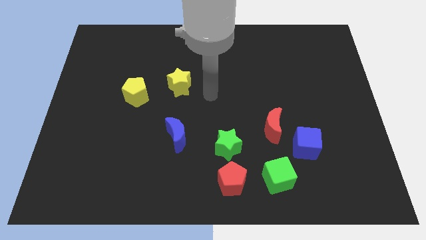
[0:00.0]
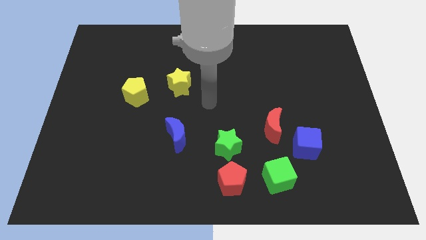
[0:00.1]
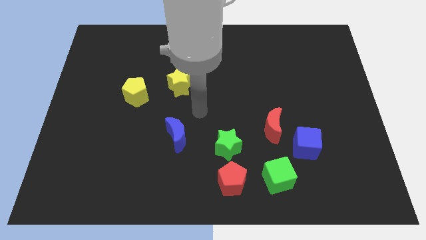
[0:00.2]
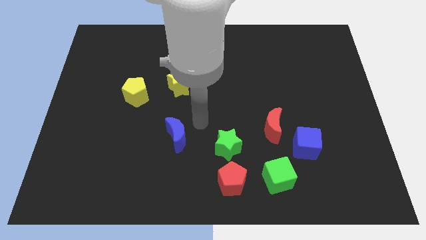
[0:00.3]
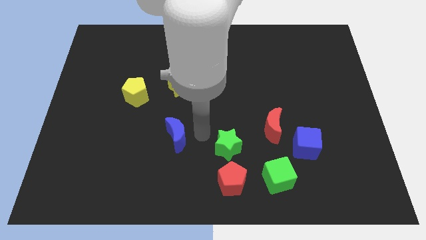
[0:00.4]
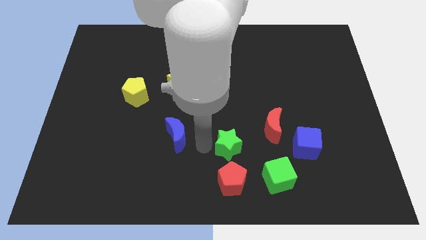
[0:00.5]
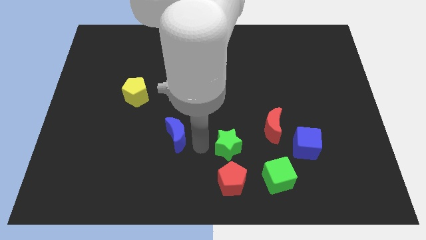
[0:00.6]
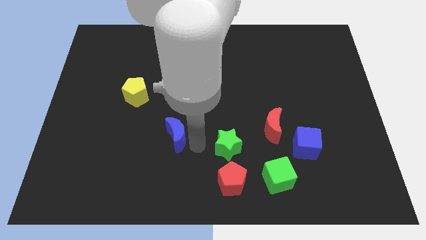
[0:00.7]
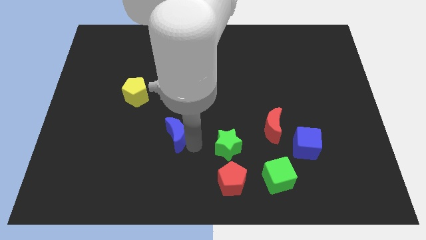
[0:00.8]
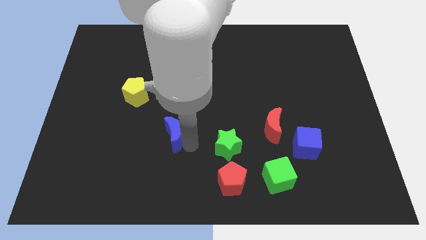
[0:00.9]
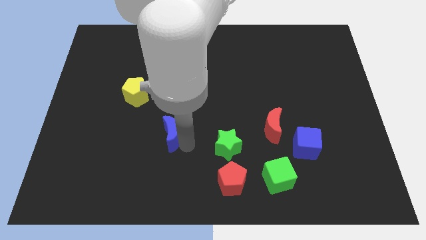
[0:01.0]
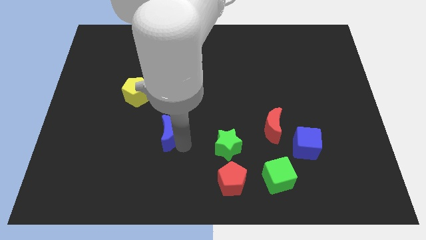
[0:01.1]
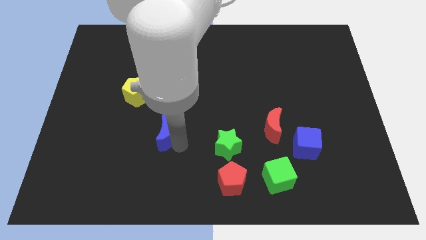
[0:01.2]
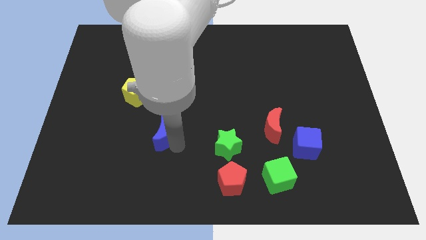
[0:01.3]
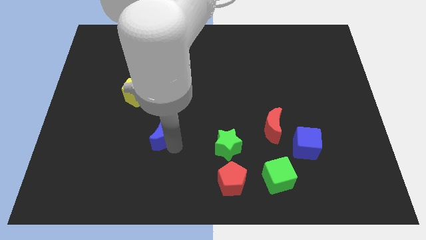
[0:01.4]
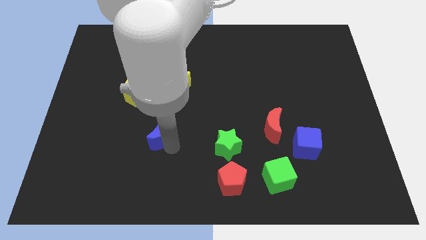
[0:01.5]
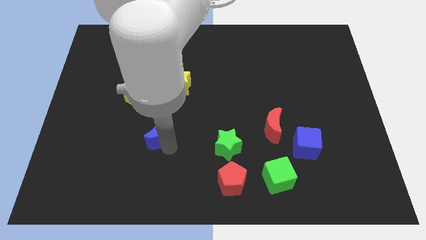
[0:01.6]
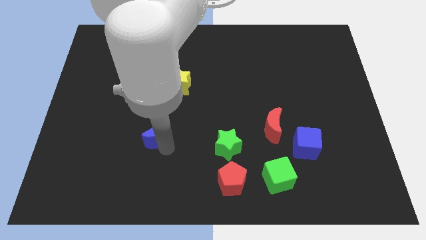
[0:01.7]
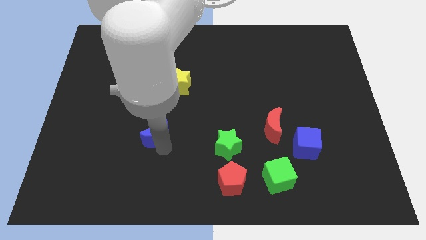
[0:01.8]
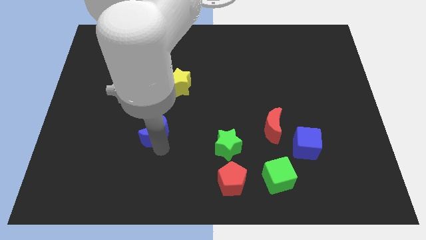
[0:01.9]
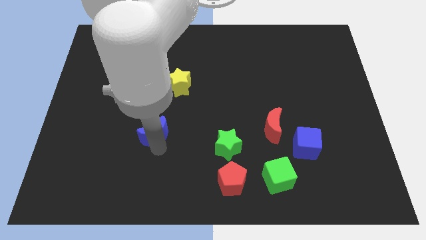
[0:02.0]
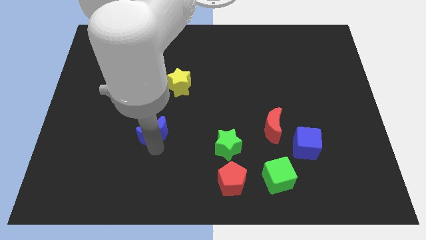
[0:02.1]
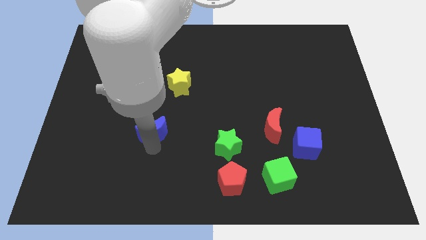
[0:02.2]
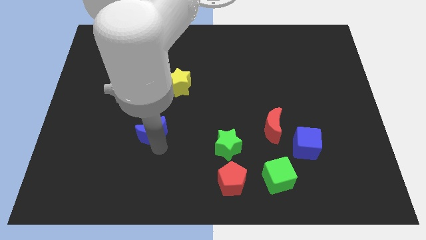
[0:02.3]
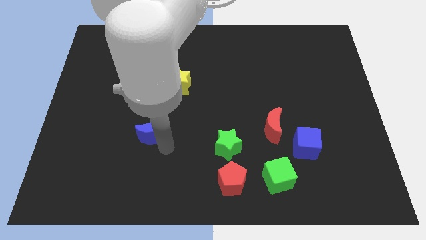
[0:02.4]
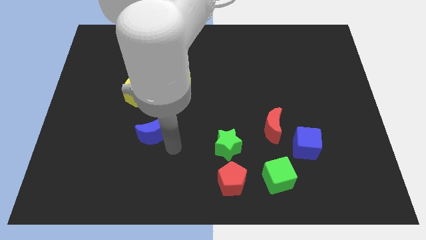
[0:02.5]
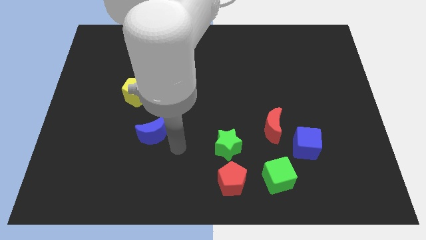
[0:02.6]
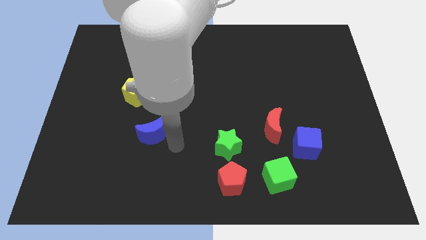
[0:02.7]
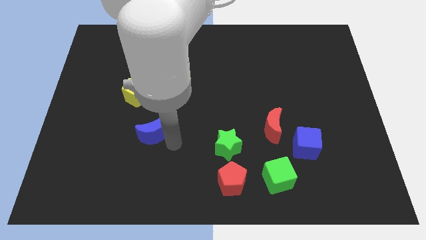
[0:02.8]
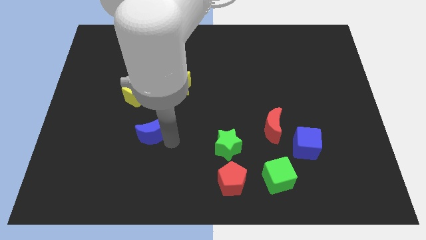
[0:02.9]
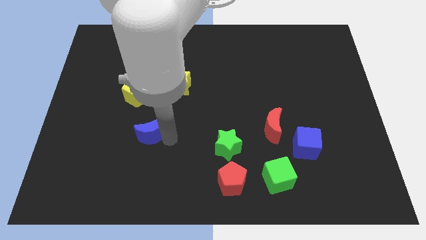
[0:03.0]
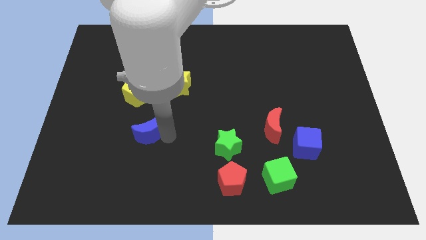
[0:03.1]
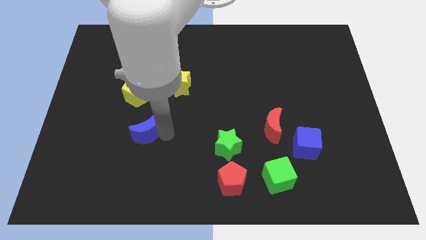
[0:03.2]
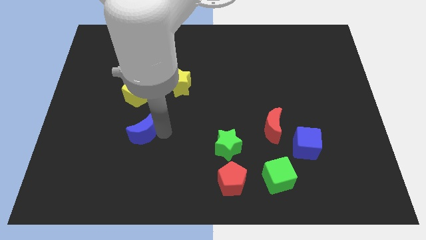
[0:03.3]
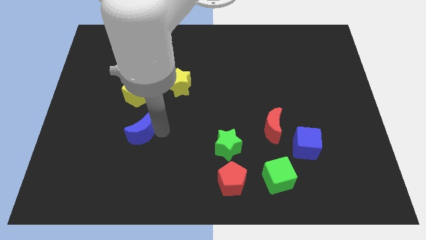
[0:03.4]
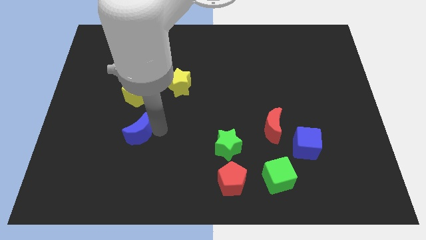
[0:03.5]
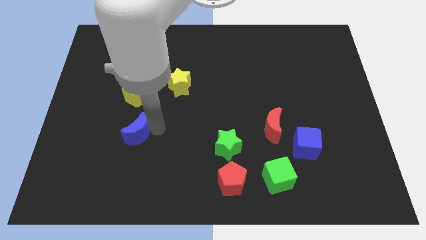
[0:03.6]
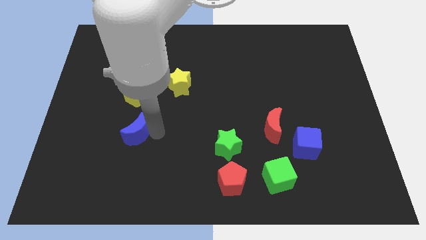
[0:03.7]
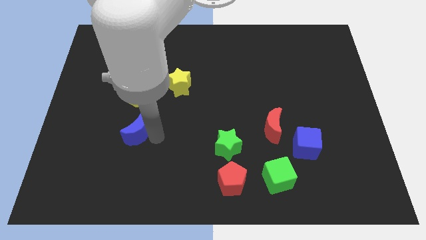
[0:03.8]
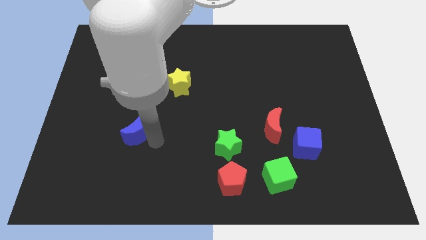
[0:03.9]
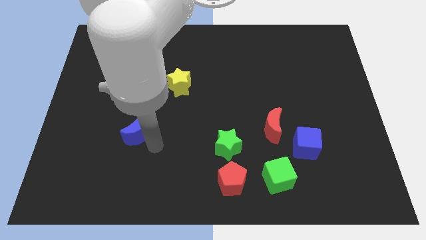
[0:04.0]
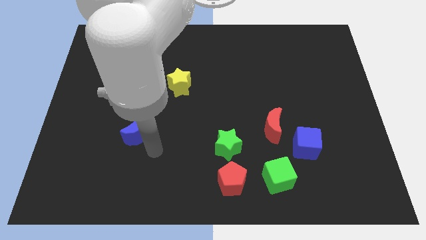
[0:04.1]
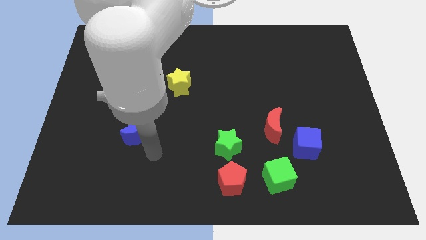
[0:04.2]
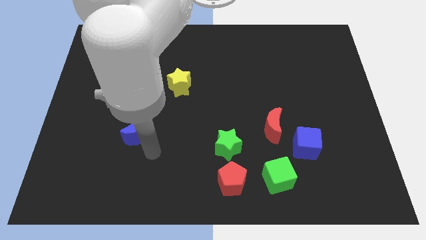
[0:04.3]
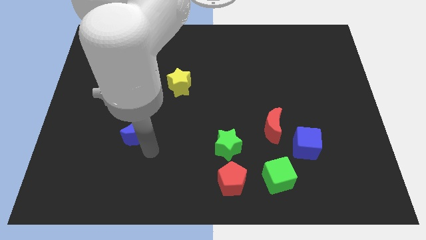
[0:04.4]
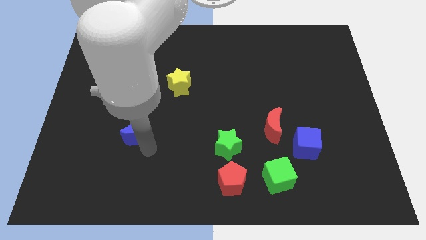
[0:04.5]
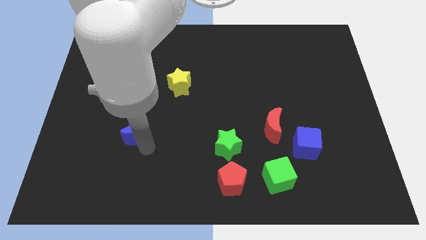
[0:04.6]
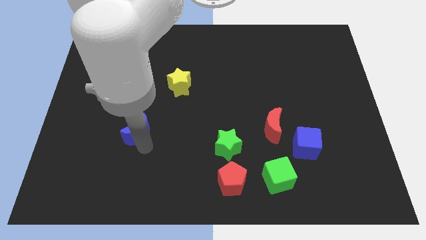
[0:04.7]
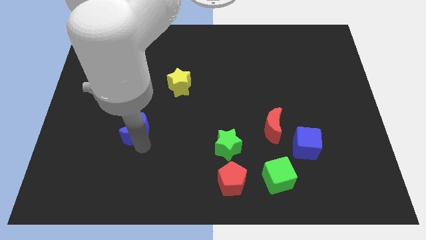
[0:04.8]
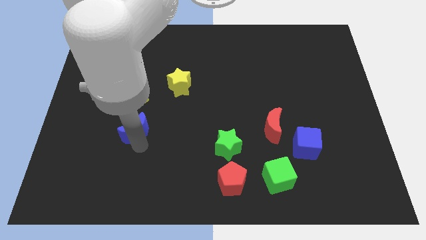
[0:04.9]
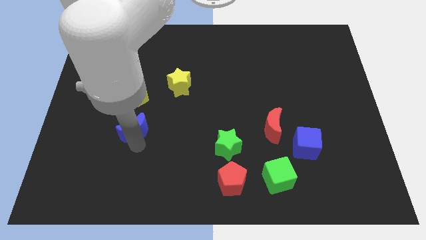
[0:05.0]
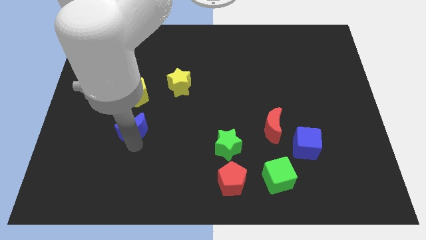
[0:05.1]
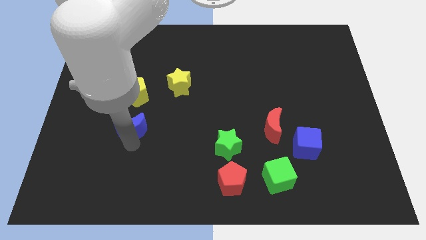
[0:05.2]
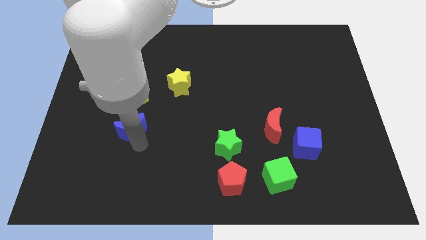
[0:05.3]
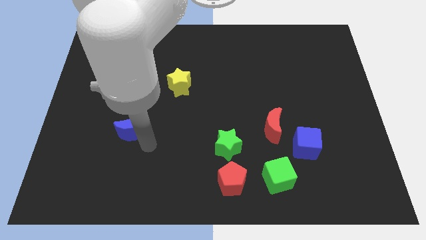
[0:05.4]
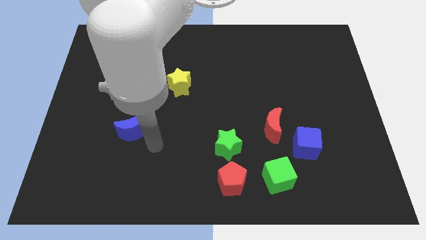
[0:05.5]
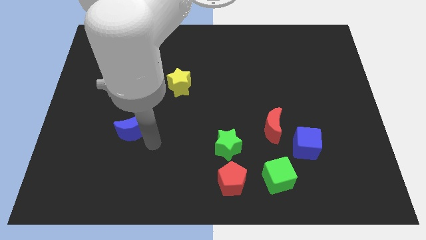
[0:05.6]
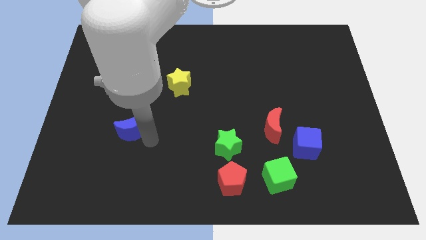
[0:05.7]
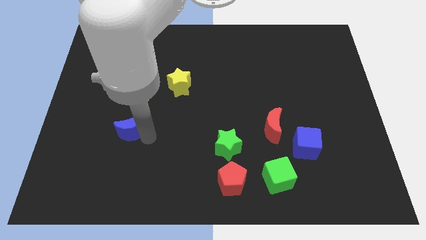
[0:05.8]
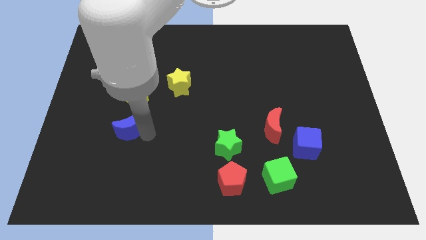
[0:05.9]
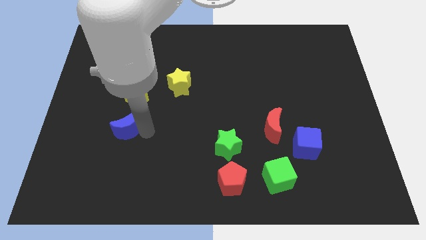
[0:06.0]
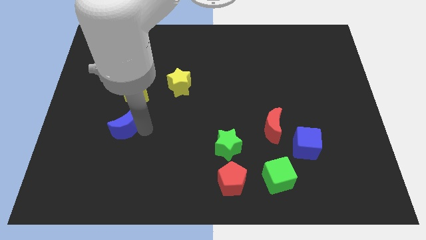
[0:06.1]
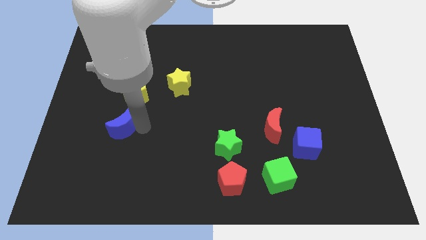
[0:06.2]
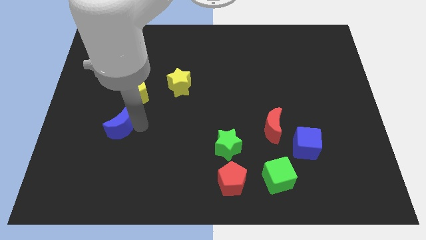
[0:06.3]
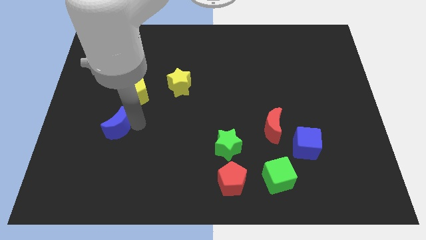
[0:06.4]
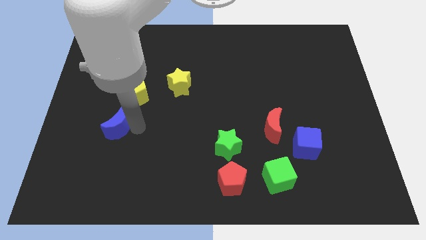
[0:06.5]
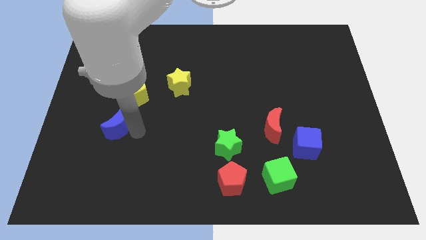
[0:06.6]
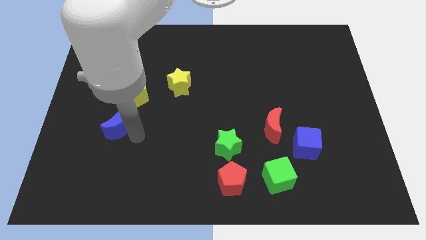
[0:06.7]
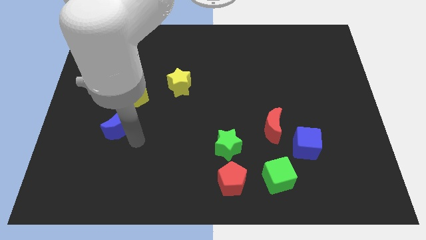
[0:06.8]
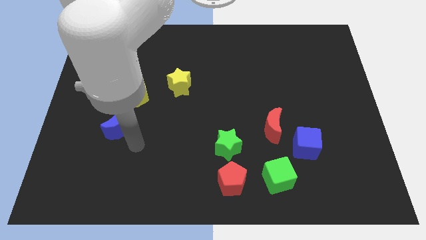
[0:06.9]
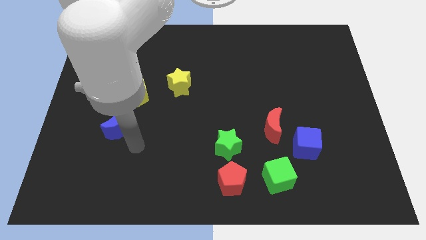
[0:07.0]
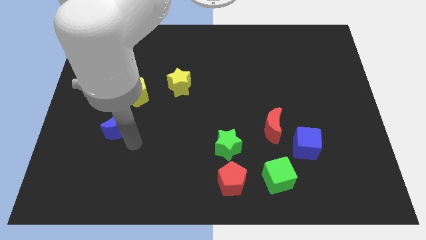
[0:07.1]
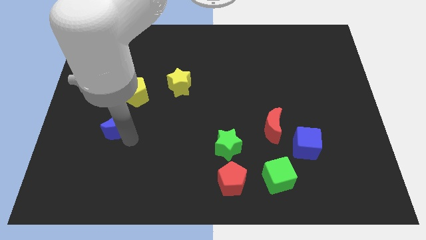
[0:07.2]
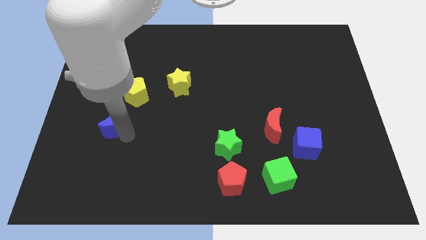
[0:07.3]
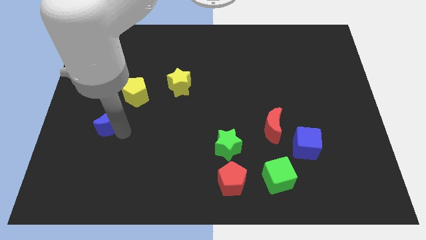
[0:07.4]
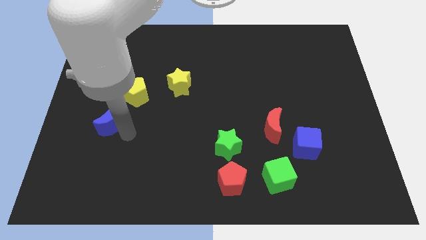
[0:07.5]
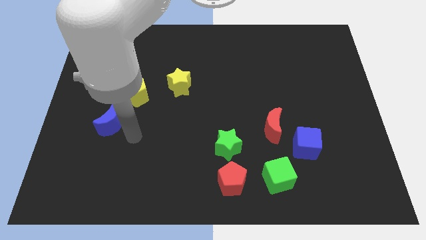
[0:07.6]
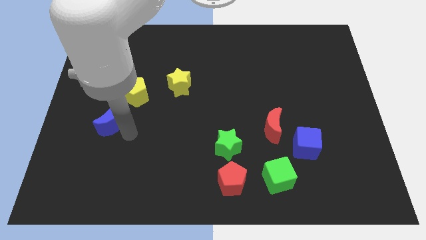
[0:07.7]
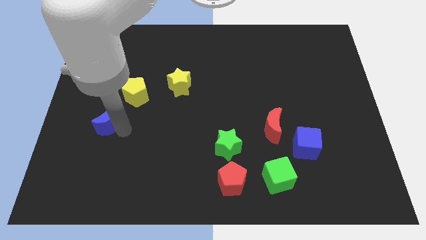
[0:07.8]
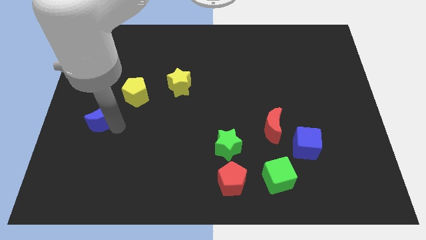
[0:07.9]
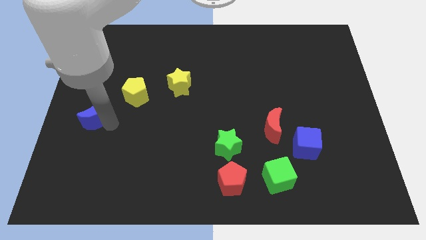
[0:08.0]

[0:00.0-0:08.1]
push the blue moon to the left side
